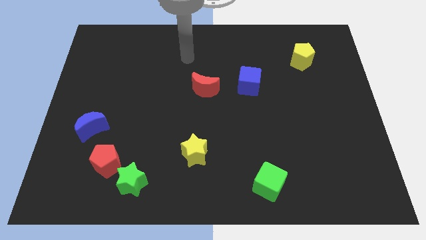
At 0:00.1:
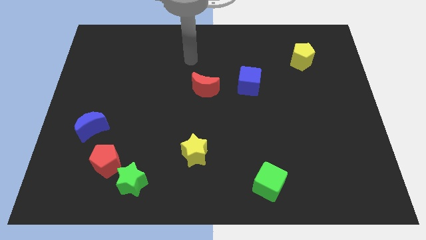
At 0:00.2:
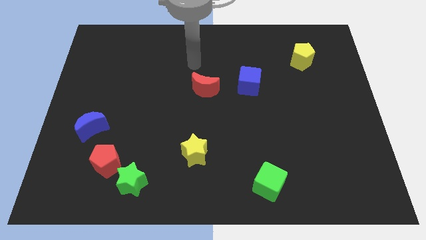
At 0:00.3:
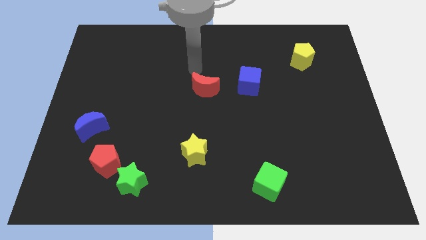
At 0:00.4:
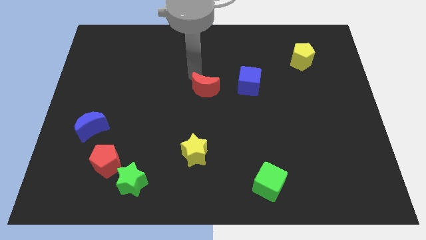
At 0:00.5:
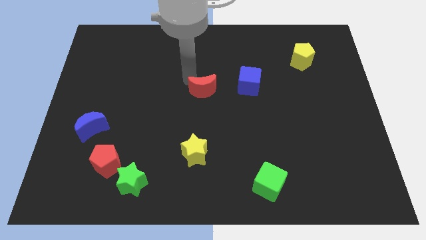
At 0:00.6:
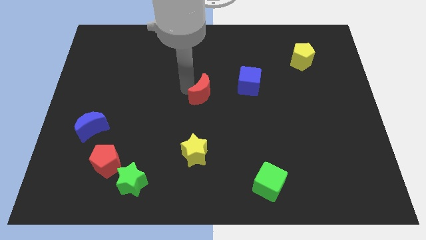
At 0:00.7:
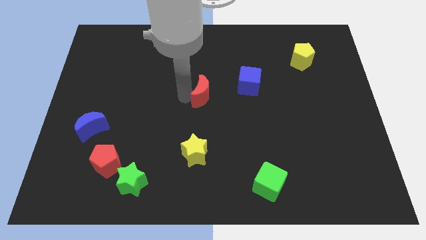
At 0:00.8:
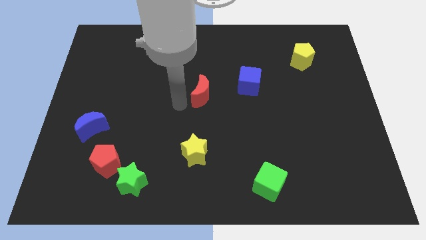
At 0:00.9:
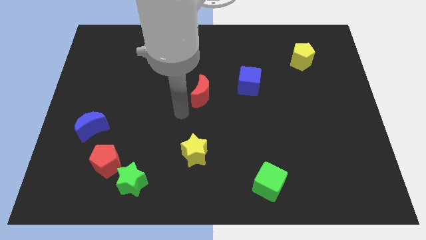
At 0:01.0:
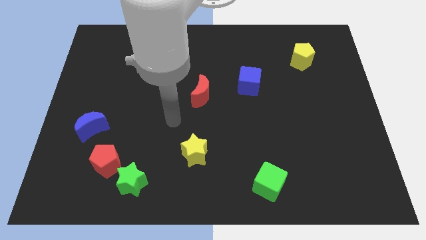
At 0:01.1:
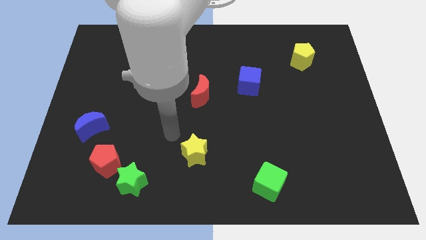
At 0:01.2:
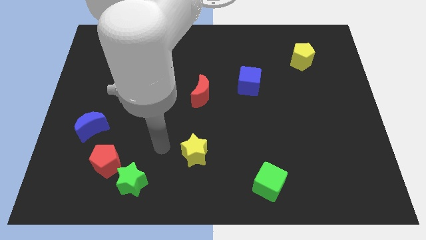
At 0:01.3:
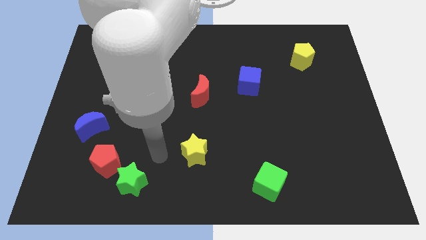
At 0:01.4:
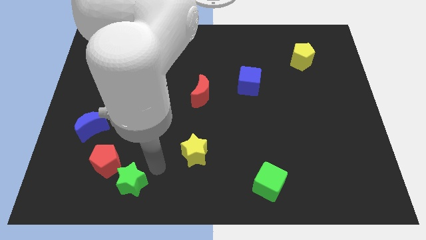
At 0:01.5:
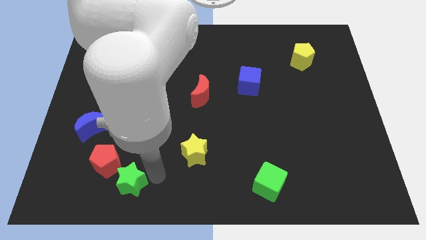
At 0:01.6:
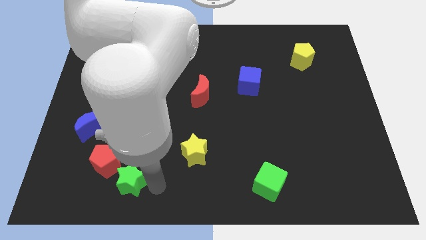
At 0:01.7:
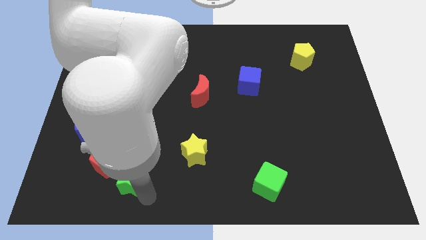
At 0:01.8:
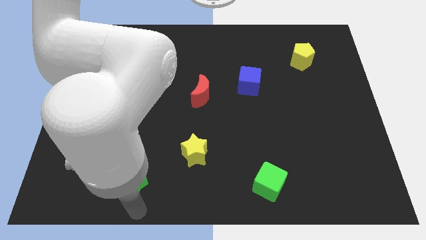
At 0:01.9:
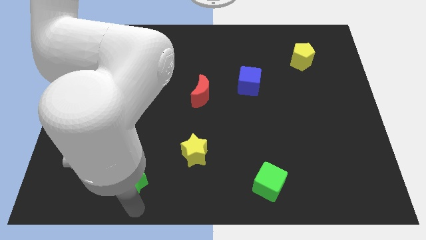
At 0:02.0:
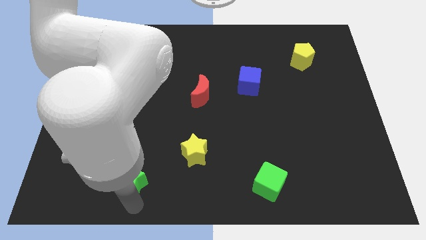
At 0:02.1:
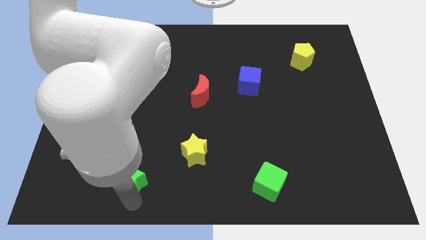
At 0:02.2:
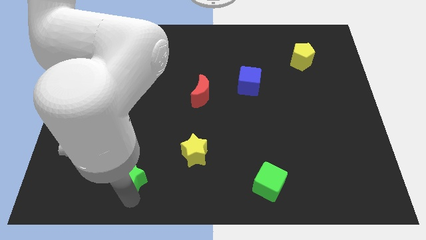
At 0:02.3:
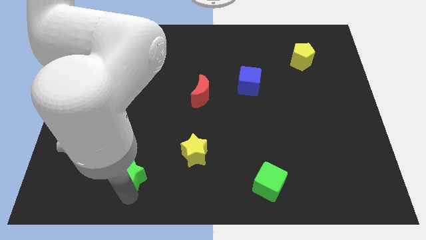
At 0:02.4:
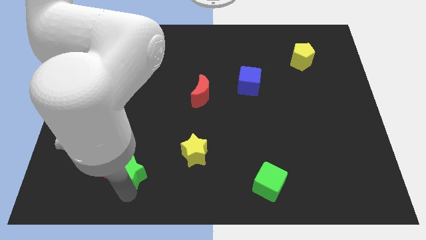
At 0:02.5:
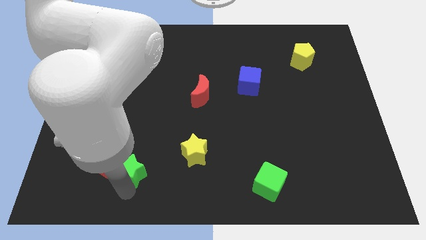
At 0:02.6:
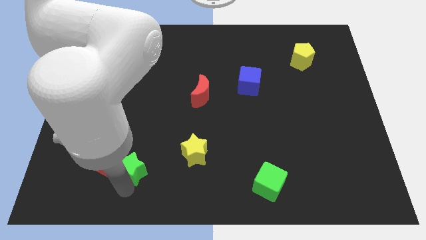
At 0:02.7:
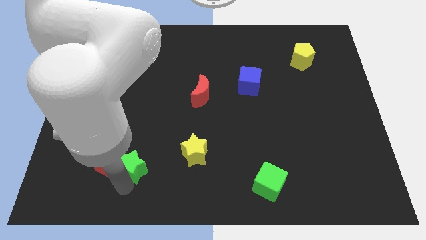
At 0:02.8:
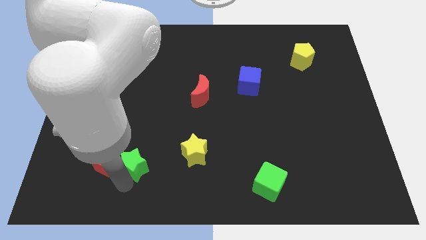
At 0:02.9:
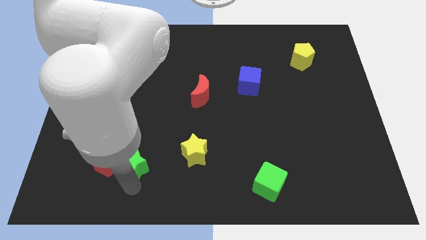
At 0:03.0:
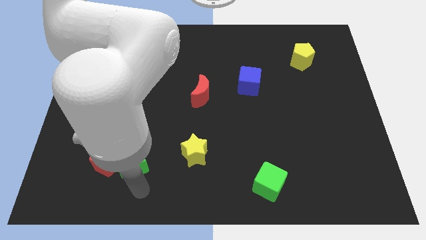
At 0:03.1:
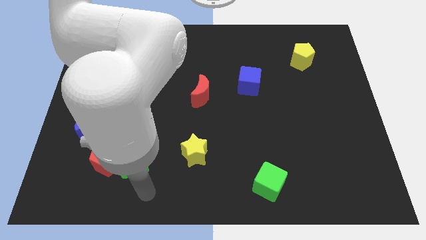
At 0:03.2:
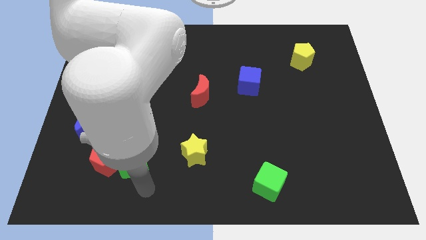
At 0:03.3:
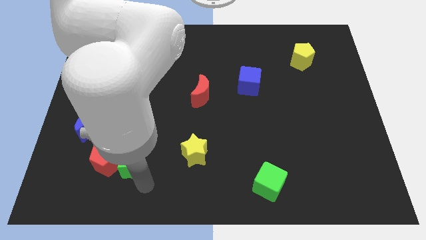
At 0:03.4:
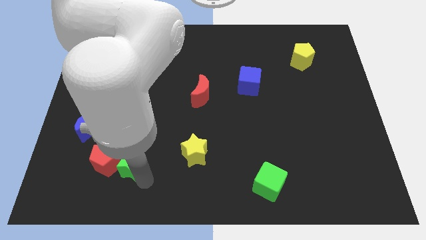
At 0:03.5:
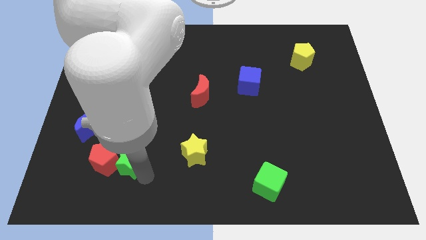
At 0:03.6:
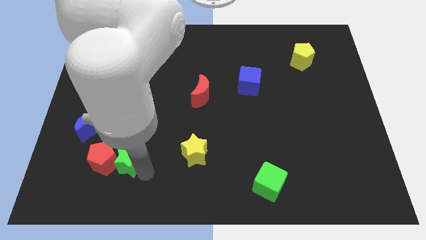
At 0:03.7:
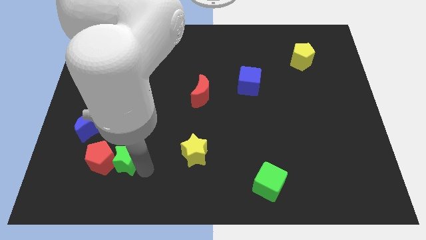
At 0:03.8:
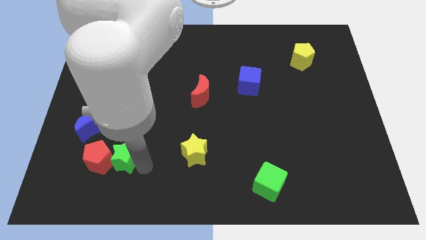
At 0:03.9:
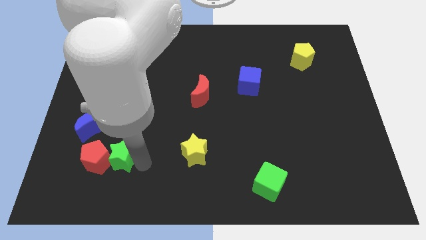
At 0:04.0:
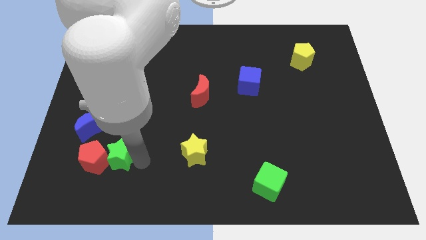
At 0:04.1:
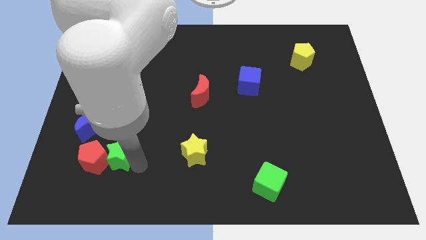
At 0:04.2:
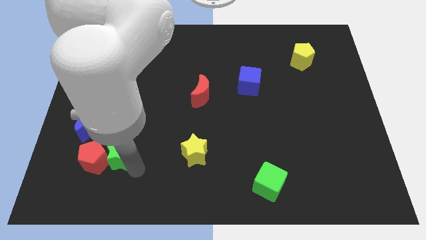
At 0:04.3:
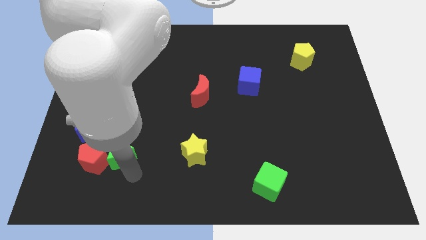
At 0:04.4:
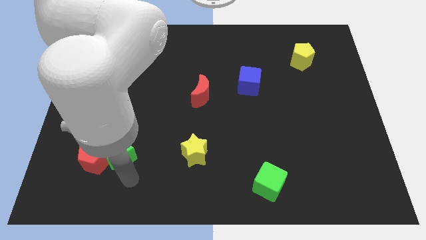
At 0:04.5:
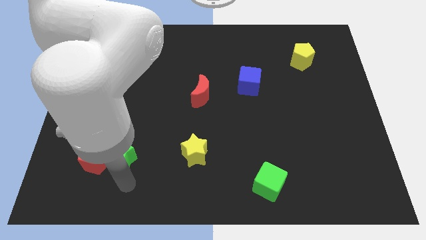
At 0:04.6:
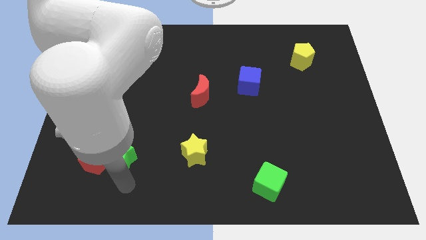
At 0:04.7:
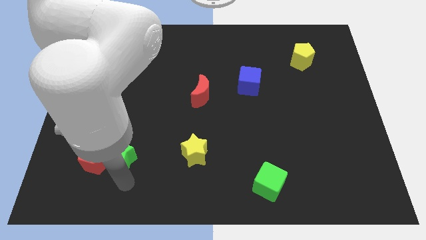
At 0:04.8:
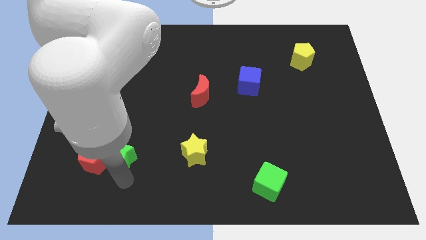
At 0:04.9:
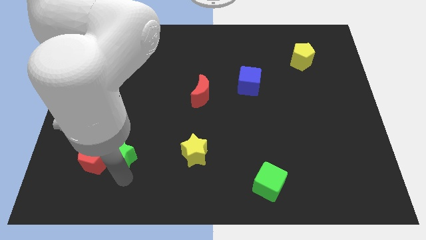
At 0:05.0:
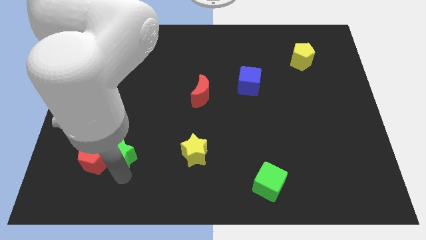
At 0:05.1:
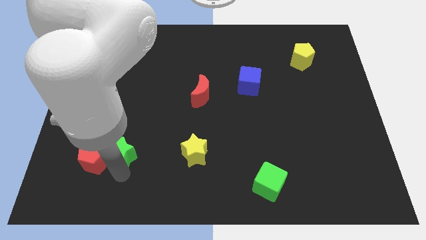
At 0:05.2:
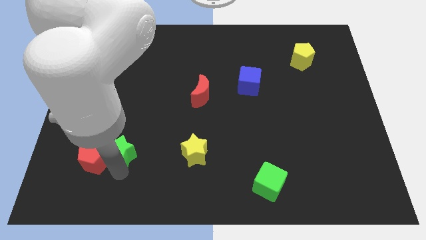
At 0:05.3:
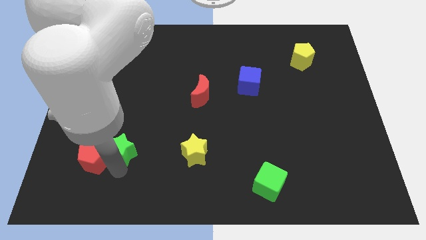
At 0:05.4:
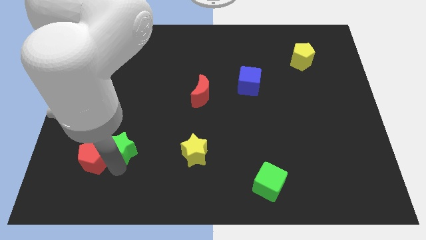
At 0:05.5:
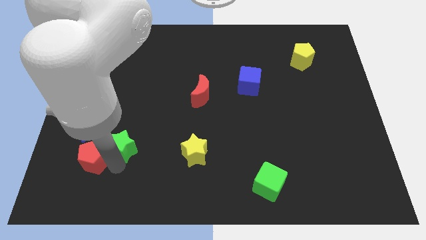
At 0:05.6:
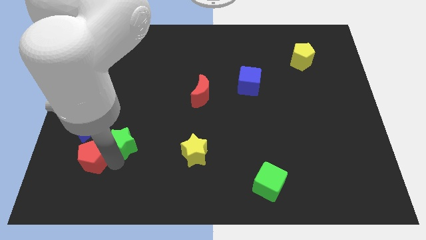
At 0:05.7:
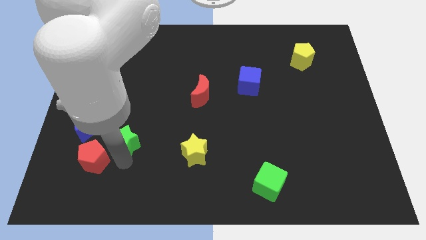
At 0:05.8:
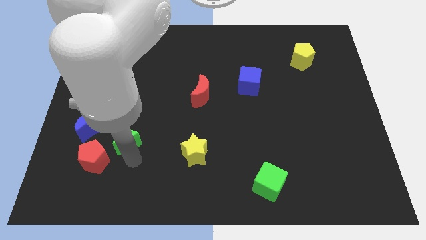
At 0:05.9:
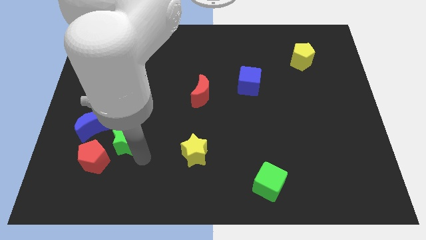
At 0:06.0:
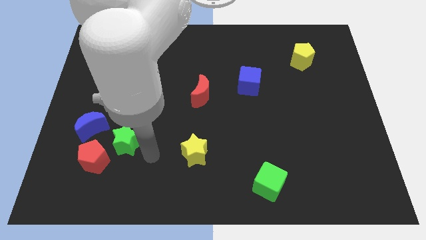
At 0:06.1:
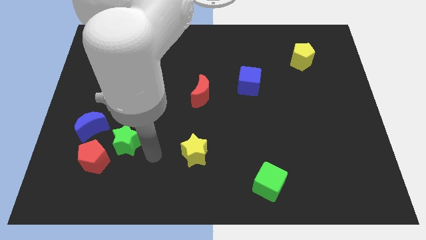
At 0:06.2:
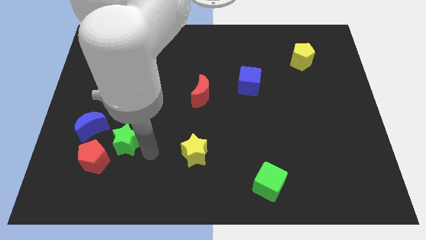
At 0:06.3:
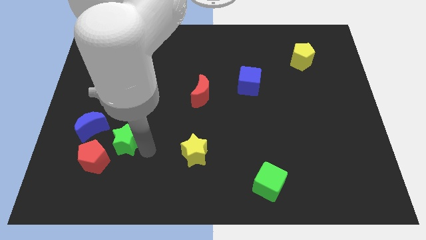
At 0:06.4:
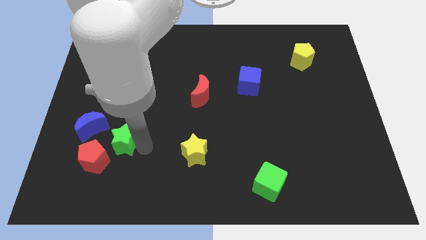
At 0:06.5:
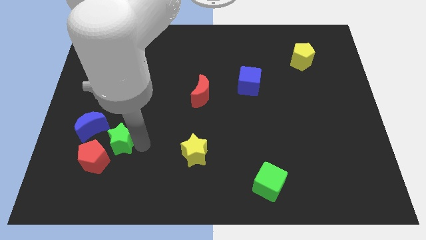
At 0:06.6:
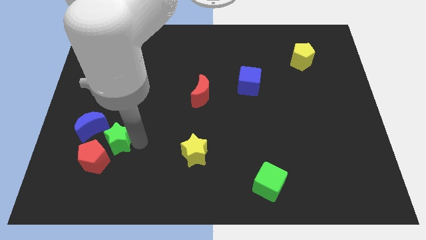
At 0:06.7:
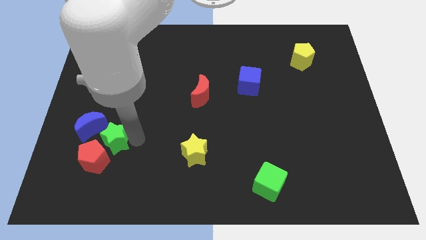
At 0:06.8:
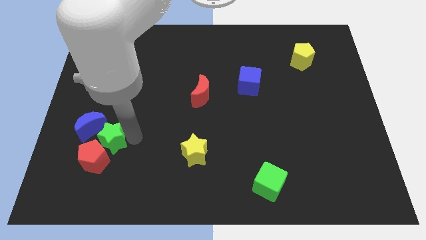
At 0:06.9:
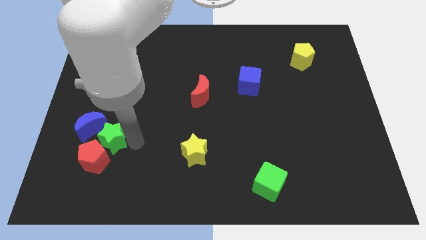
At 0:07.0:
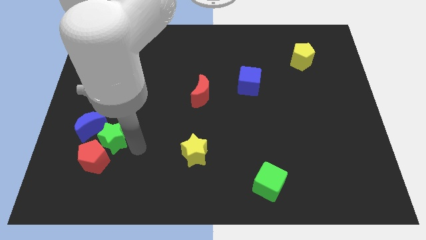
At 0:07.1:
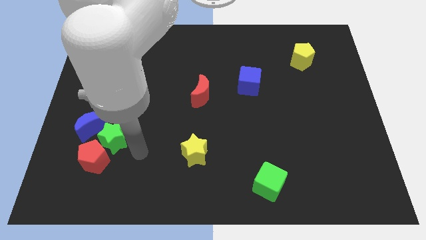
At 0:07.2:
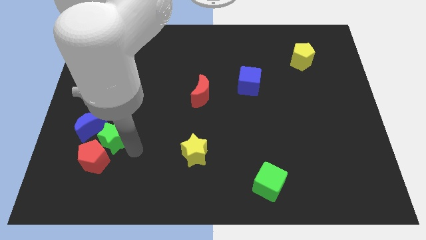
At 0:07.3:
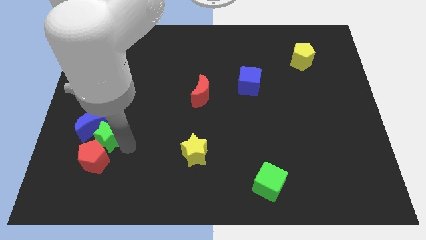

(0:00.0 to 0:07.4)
slide the green star next to the blue moon
